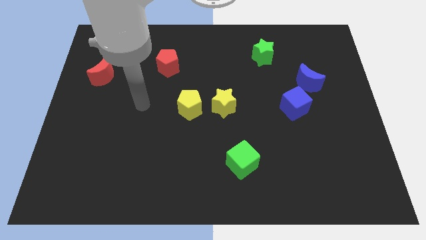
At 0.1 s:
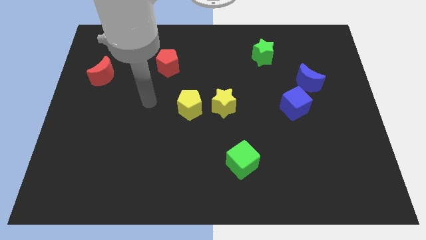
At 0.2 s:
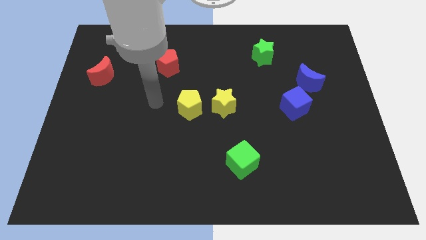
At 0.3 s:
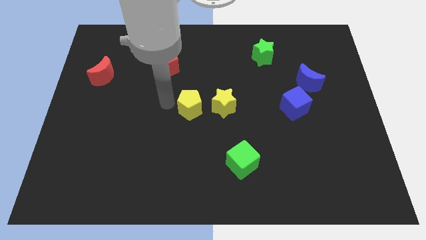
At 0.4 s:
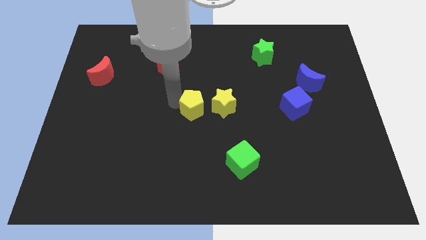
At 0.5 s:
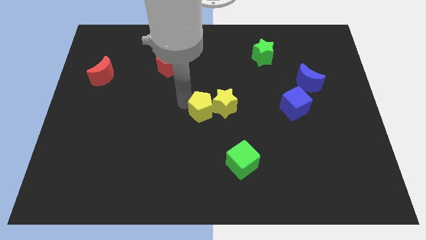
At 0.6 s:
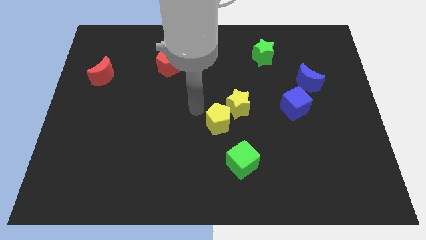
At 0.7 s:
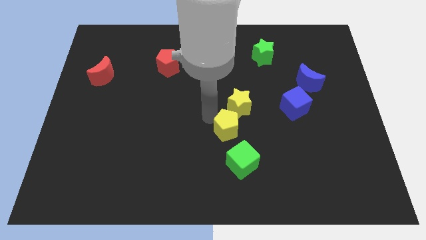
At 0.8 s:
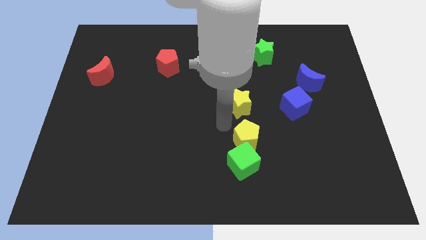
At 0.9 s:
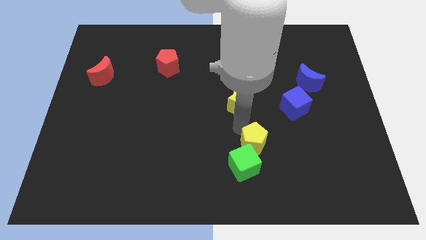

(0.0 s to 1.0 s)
move the yellow star away from the yellow pentagon

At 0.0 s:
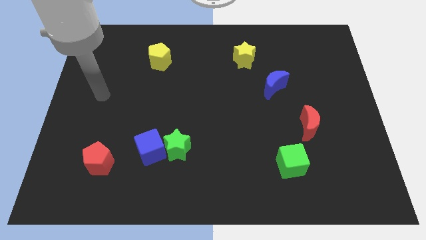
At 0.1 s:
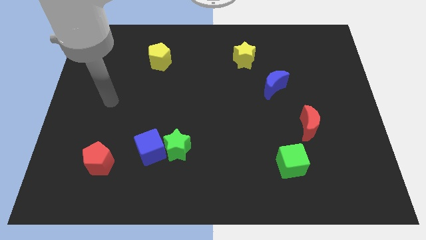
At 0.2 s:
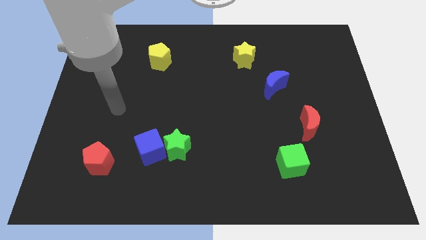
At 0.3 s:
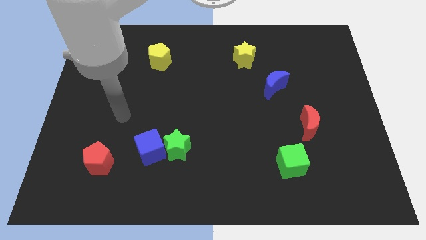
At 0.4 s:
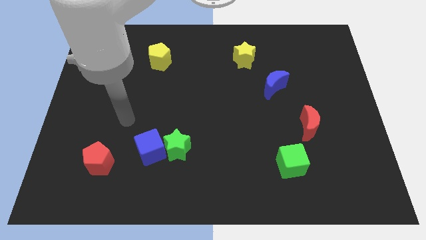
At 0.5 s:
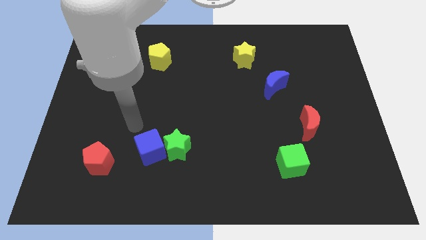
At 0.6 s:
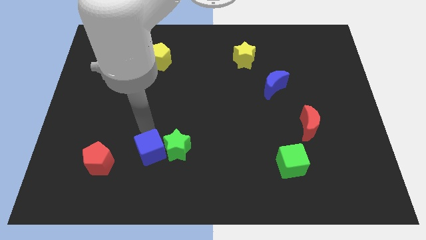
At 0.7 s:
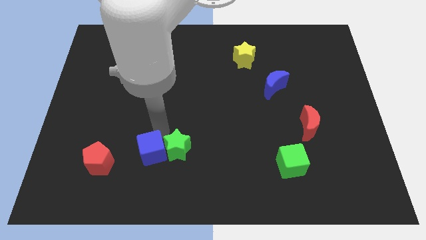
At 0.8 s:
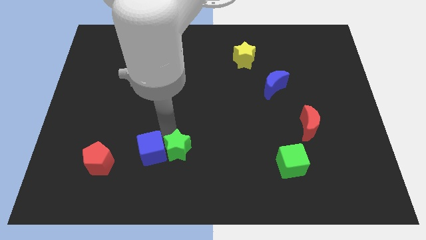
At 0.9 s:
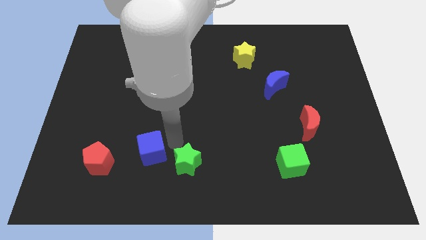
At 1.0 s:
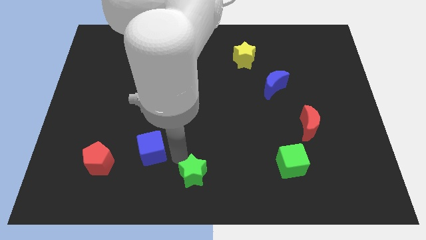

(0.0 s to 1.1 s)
move the blue cube away from the green star

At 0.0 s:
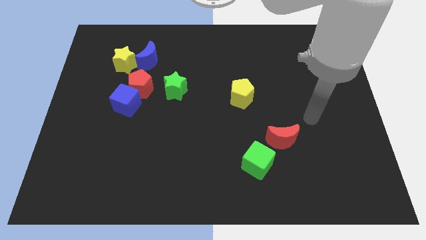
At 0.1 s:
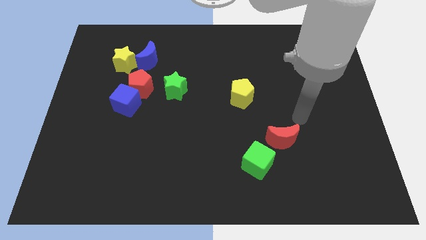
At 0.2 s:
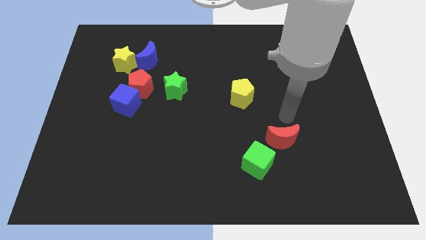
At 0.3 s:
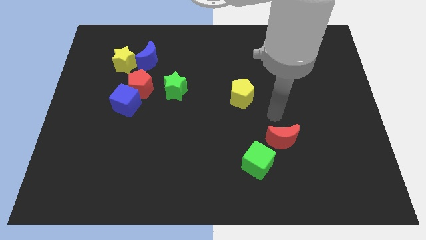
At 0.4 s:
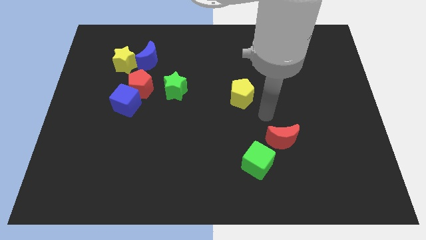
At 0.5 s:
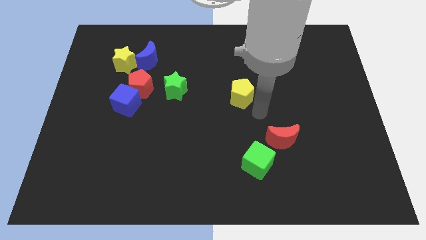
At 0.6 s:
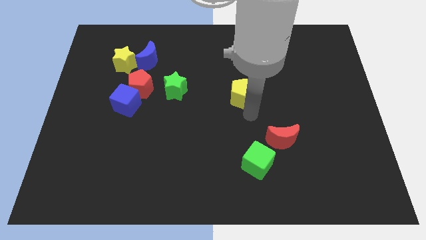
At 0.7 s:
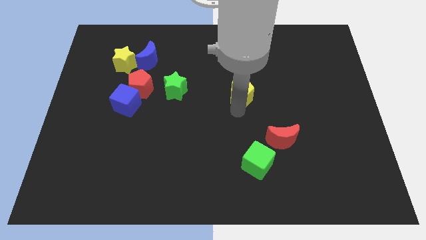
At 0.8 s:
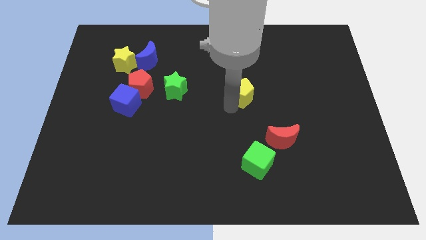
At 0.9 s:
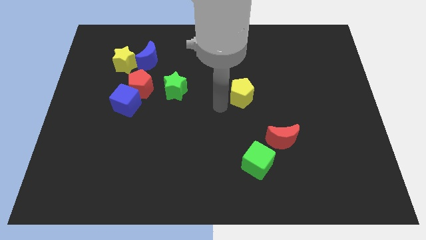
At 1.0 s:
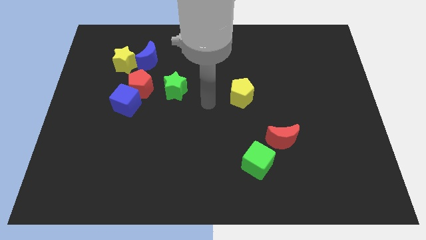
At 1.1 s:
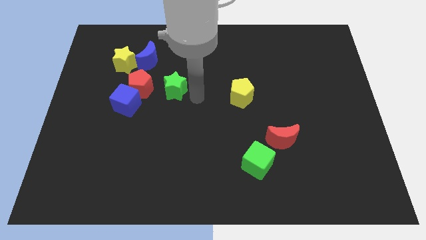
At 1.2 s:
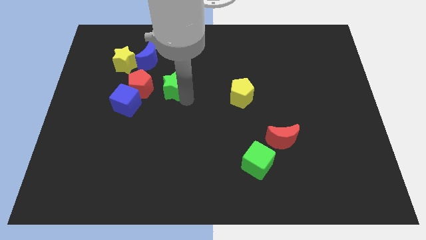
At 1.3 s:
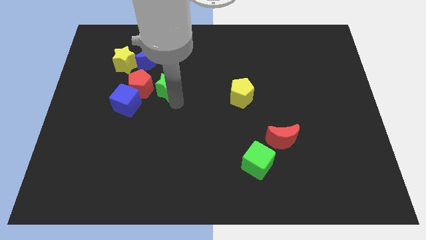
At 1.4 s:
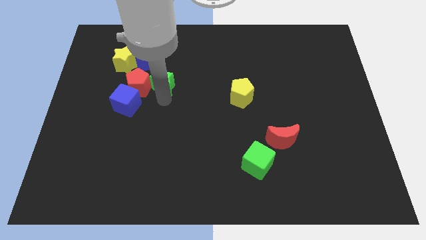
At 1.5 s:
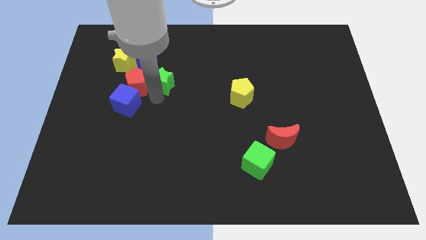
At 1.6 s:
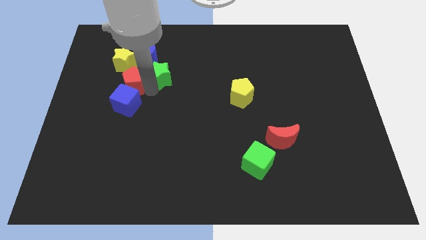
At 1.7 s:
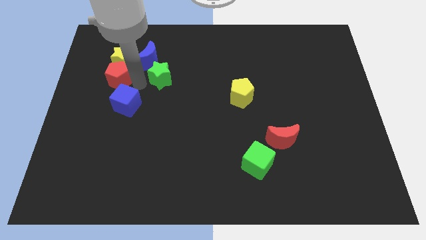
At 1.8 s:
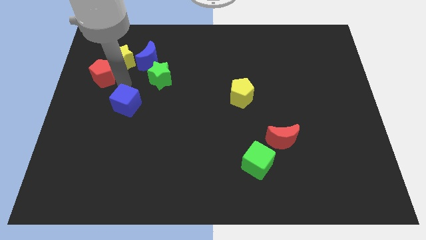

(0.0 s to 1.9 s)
separate the blue cube from the red pentagon

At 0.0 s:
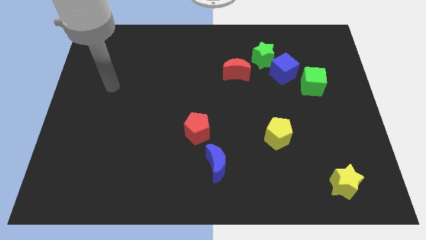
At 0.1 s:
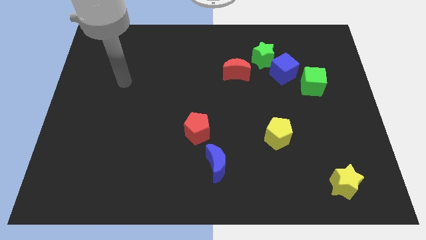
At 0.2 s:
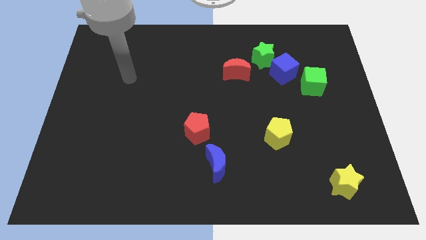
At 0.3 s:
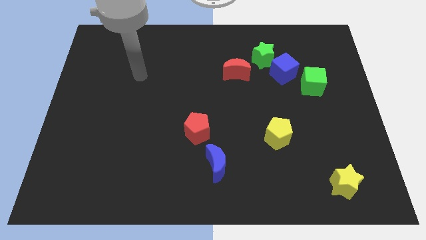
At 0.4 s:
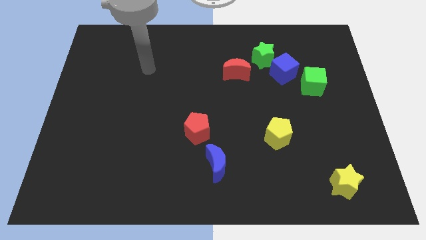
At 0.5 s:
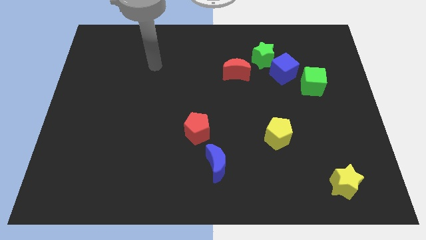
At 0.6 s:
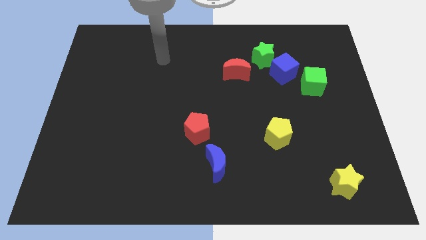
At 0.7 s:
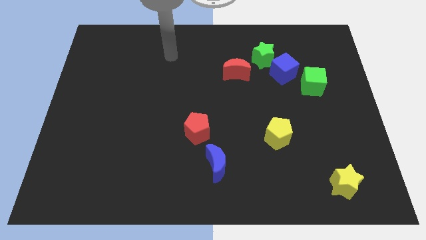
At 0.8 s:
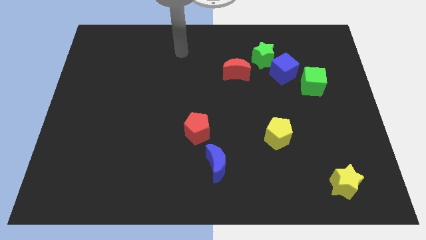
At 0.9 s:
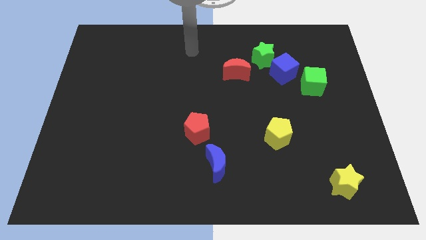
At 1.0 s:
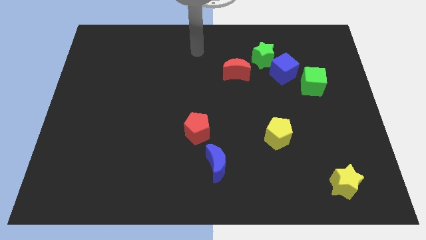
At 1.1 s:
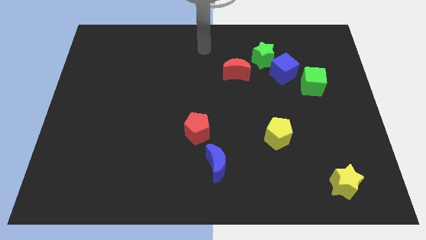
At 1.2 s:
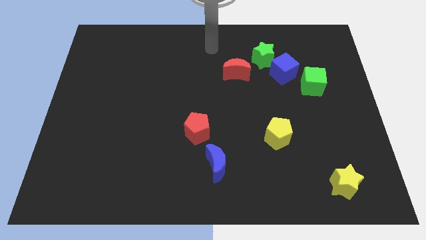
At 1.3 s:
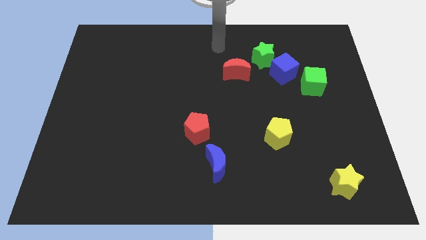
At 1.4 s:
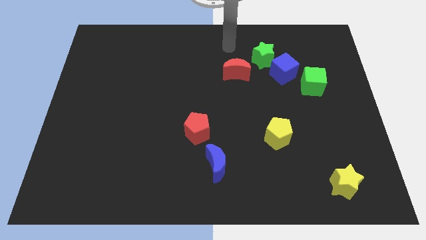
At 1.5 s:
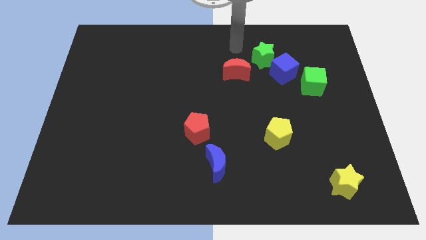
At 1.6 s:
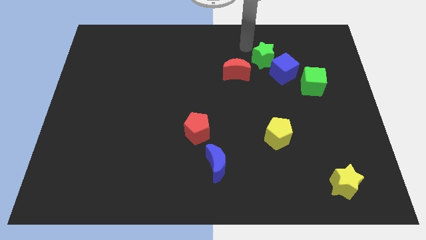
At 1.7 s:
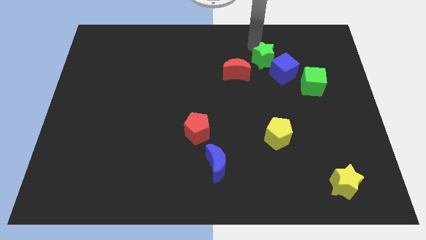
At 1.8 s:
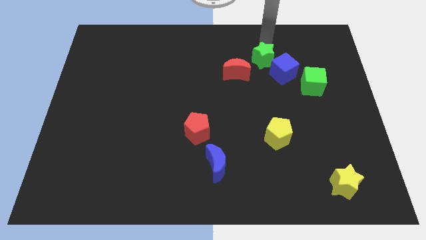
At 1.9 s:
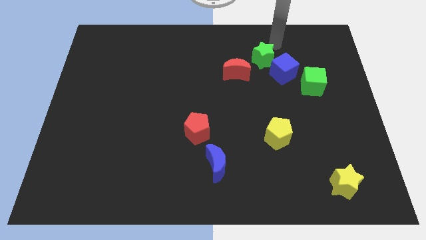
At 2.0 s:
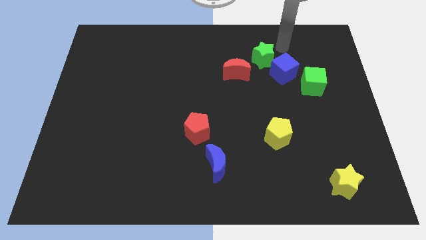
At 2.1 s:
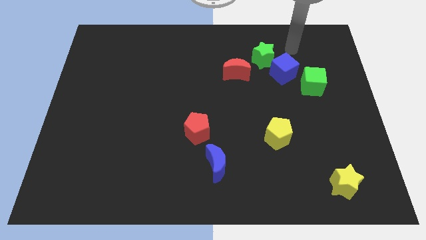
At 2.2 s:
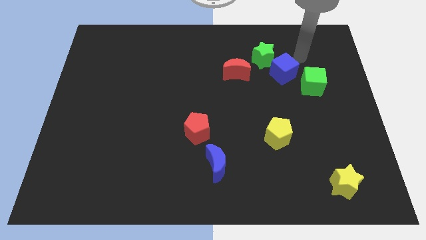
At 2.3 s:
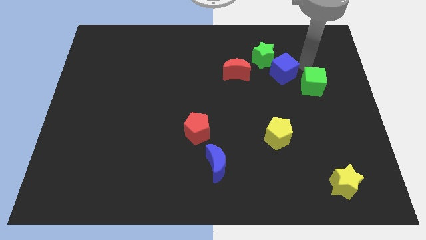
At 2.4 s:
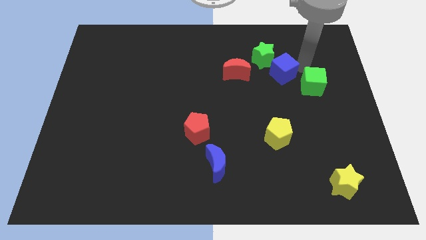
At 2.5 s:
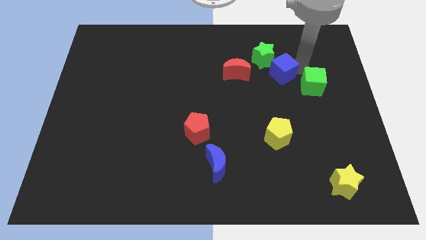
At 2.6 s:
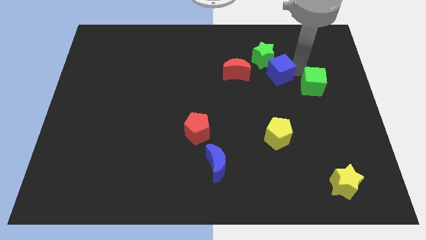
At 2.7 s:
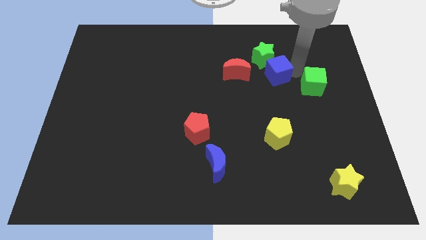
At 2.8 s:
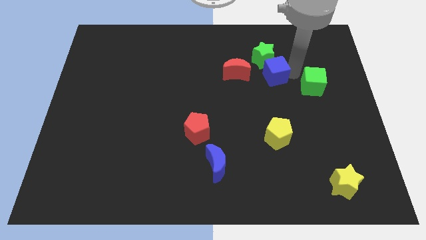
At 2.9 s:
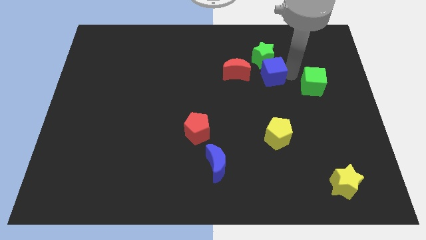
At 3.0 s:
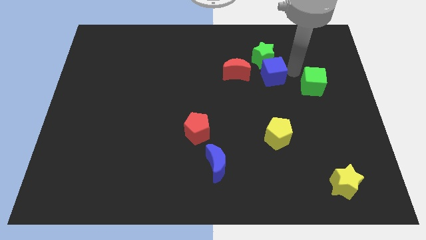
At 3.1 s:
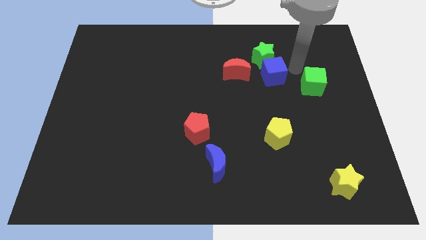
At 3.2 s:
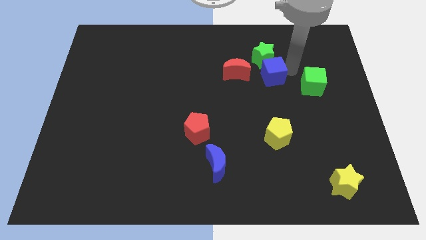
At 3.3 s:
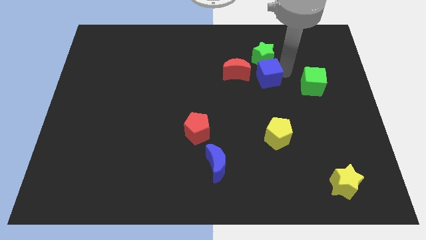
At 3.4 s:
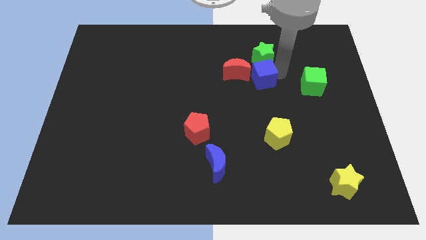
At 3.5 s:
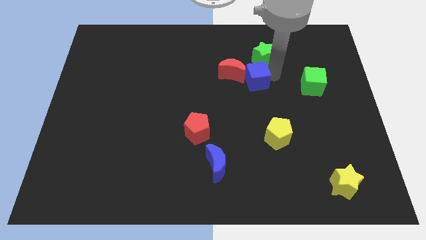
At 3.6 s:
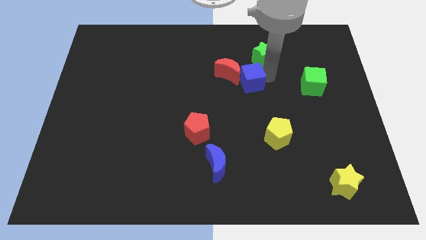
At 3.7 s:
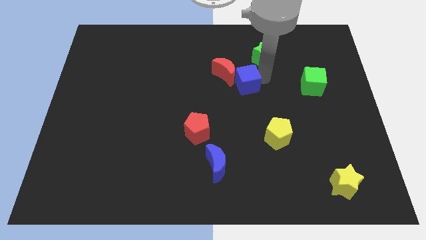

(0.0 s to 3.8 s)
pull the blue cube apart from the green star and green cube

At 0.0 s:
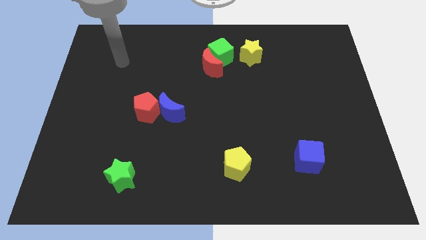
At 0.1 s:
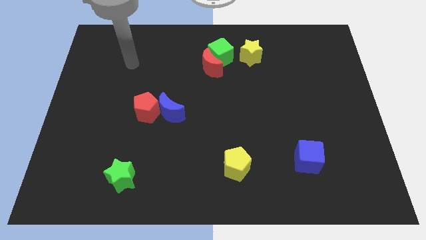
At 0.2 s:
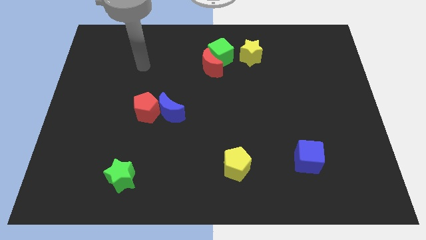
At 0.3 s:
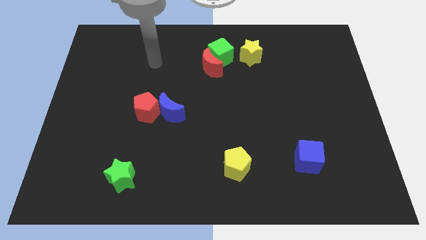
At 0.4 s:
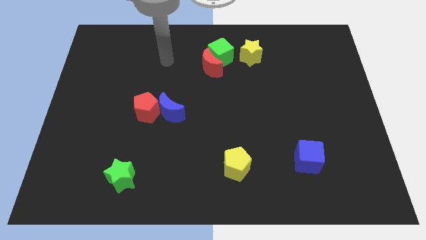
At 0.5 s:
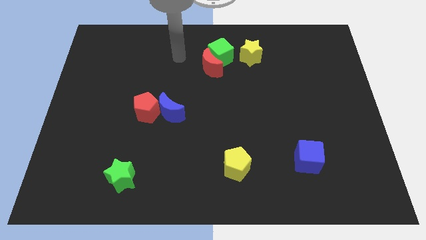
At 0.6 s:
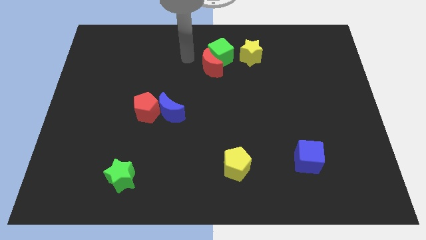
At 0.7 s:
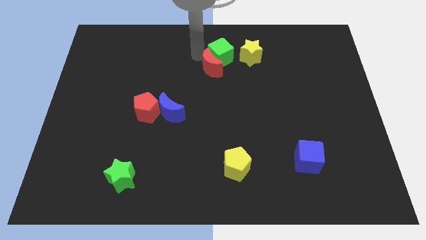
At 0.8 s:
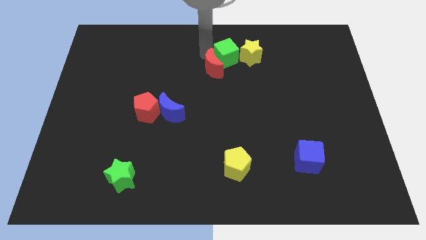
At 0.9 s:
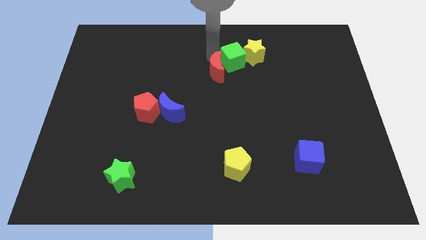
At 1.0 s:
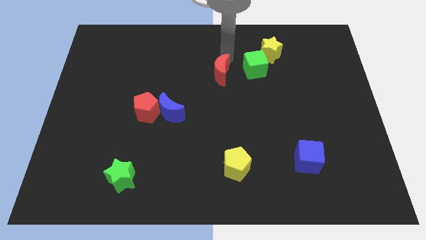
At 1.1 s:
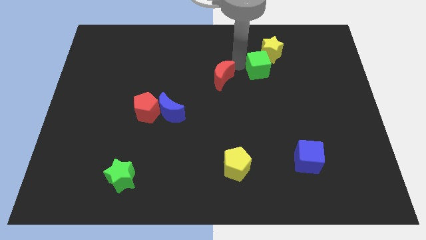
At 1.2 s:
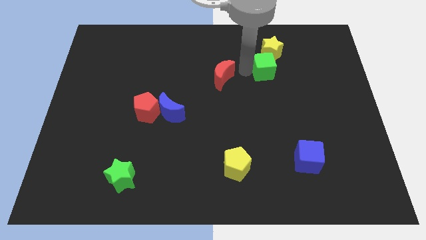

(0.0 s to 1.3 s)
move the red moon away from the green cube

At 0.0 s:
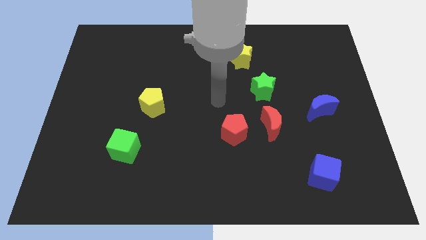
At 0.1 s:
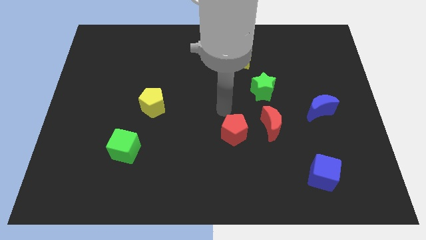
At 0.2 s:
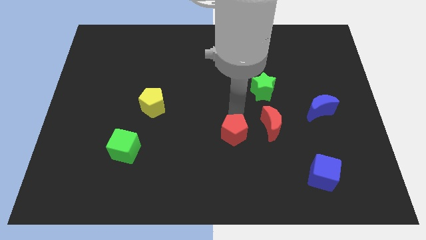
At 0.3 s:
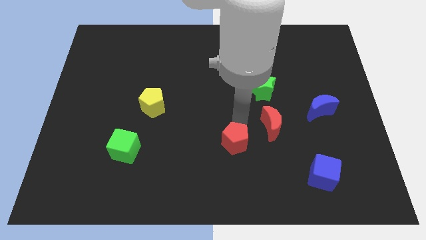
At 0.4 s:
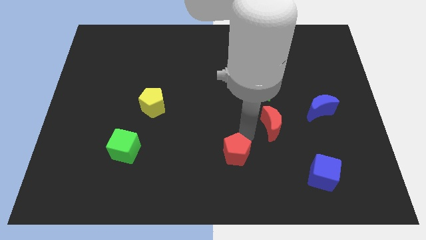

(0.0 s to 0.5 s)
separate the red moon from the red pentagon
